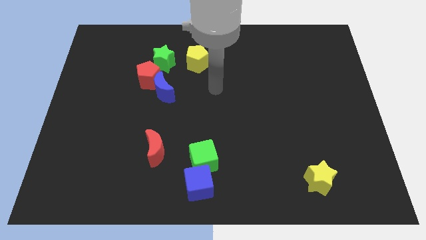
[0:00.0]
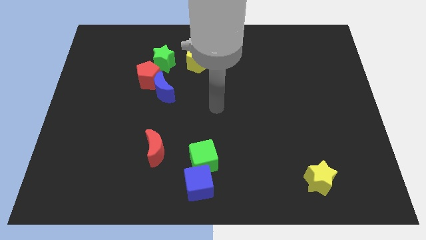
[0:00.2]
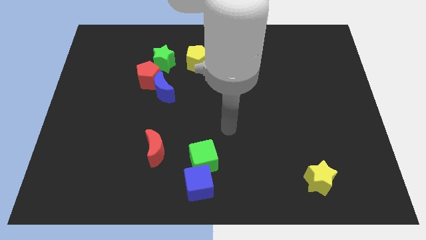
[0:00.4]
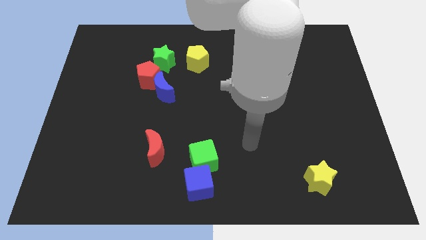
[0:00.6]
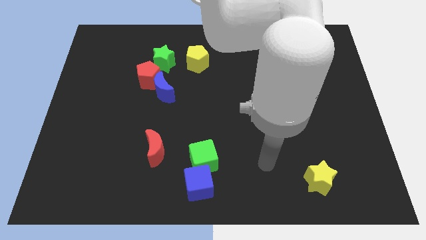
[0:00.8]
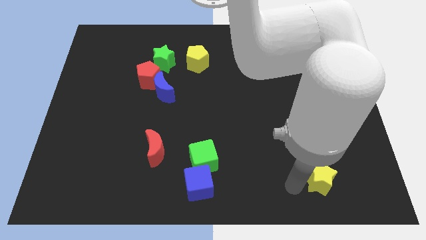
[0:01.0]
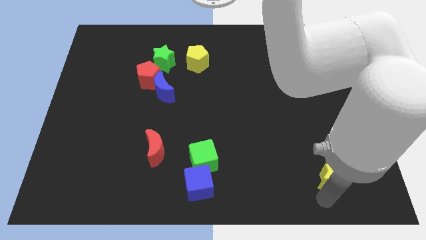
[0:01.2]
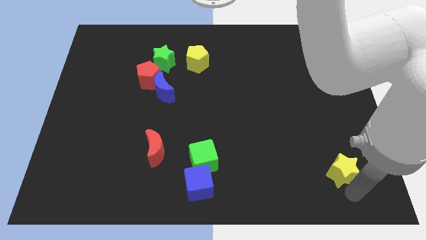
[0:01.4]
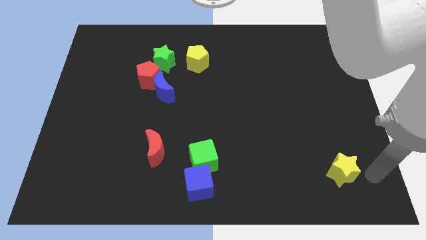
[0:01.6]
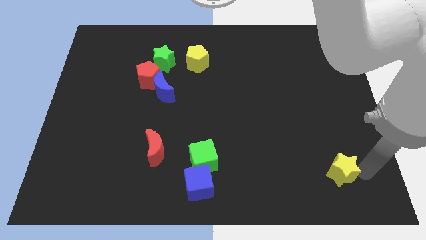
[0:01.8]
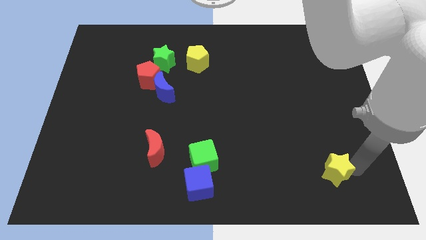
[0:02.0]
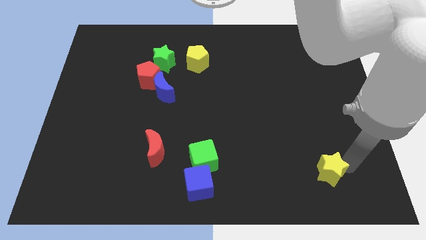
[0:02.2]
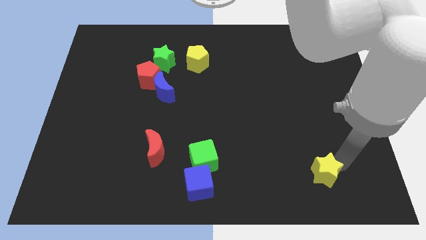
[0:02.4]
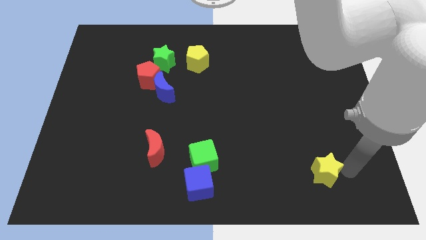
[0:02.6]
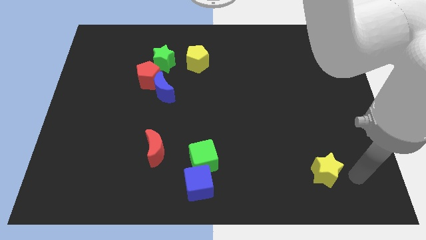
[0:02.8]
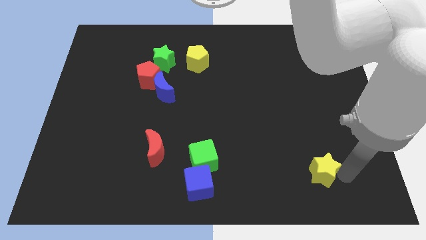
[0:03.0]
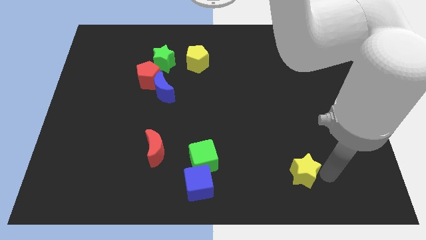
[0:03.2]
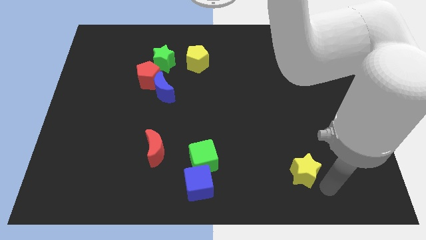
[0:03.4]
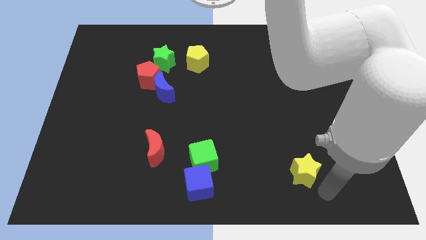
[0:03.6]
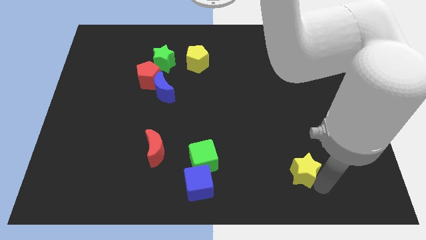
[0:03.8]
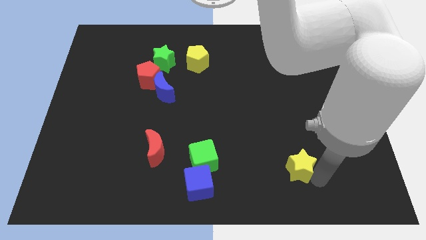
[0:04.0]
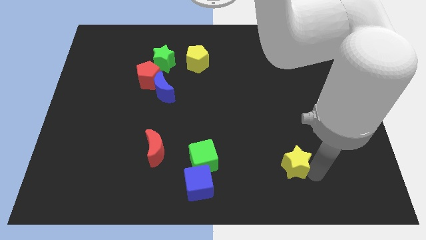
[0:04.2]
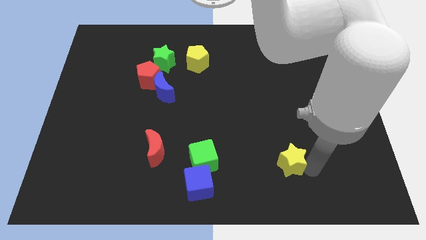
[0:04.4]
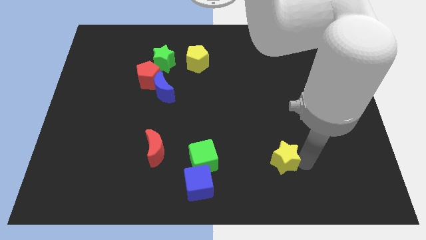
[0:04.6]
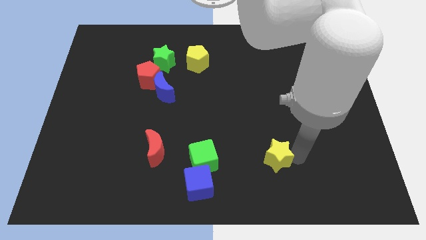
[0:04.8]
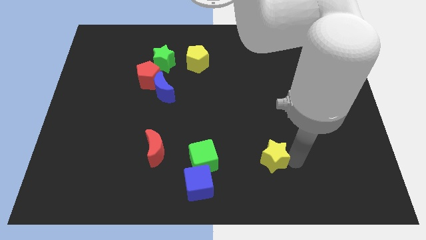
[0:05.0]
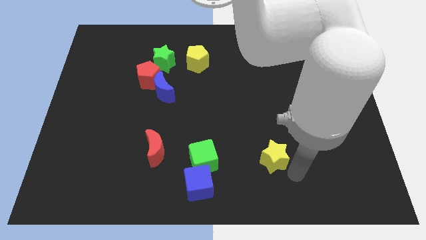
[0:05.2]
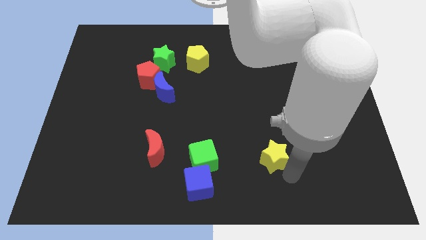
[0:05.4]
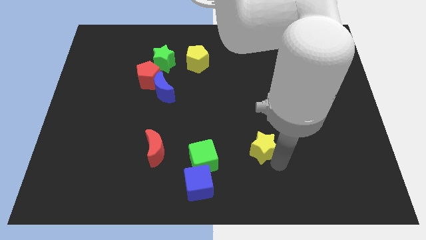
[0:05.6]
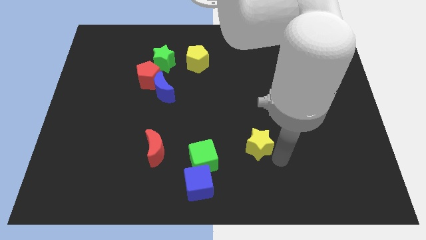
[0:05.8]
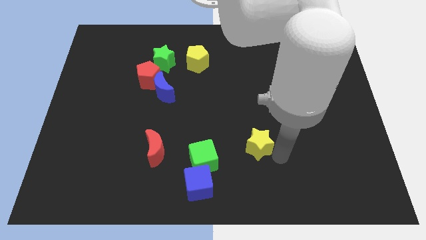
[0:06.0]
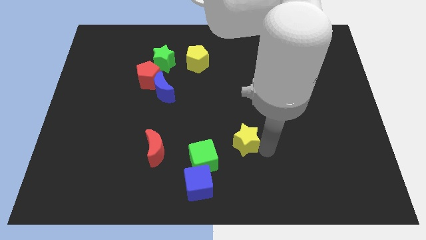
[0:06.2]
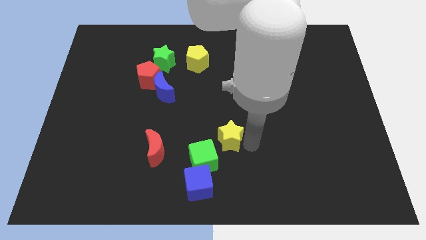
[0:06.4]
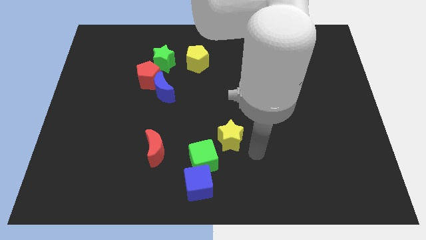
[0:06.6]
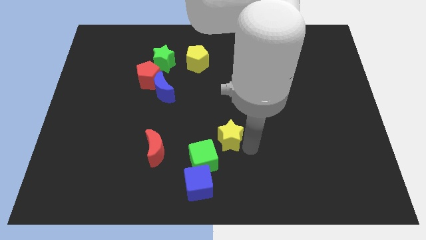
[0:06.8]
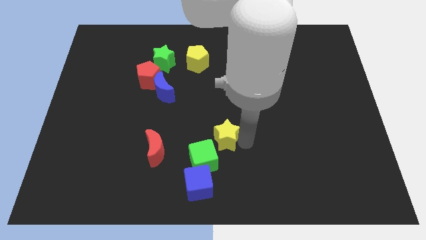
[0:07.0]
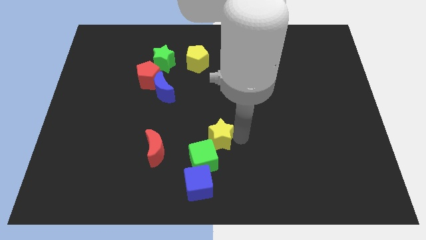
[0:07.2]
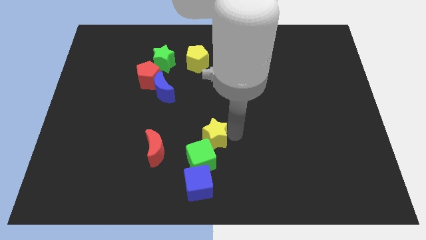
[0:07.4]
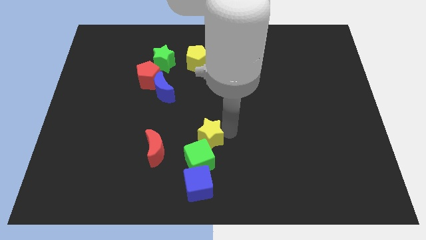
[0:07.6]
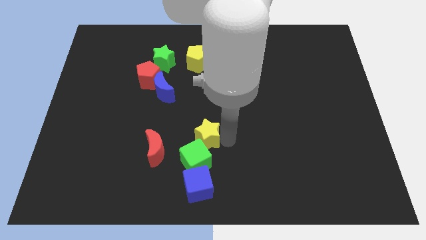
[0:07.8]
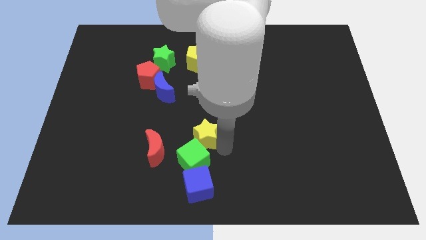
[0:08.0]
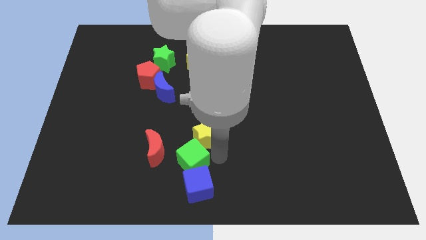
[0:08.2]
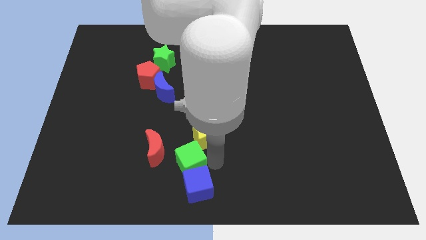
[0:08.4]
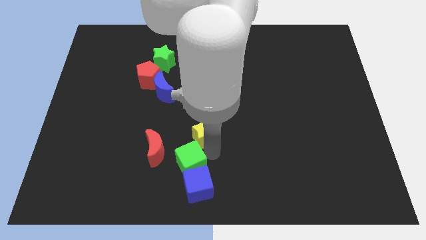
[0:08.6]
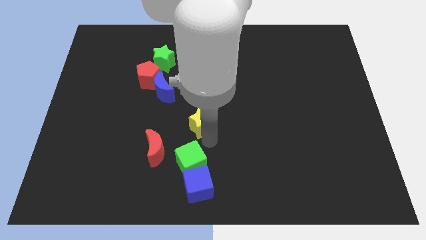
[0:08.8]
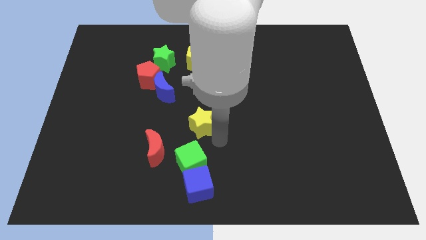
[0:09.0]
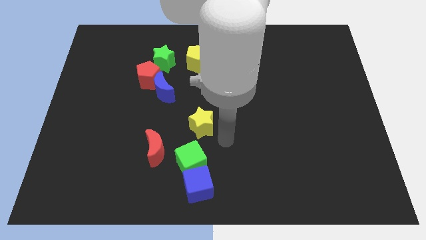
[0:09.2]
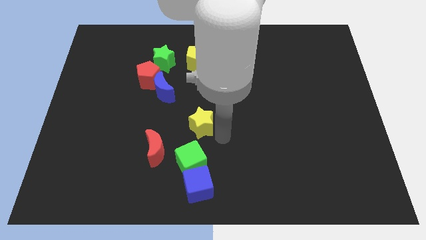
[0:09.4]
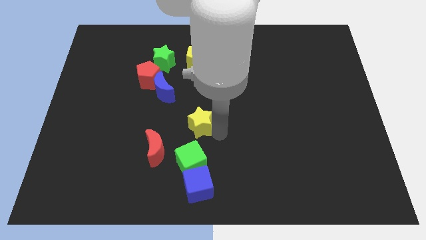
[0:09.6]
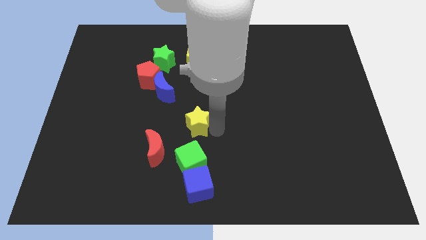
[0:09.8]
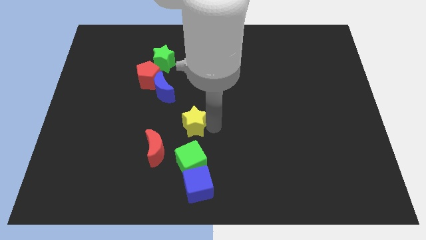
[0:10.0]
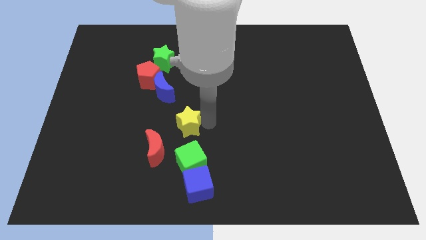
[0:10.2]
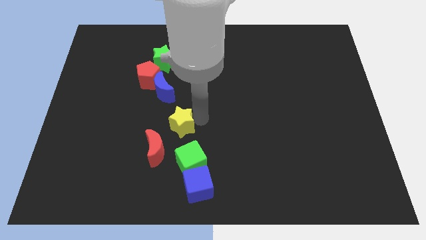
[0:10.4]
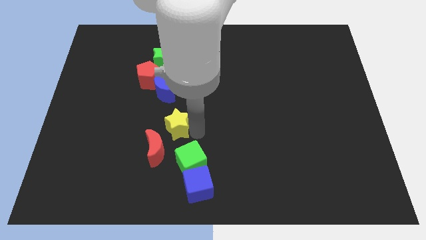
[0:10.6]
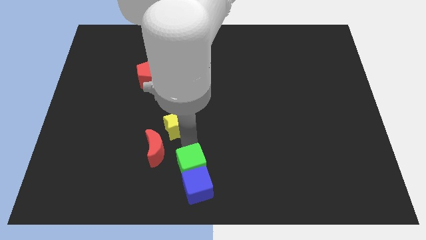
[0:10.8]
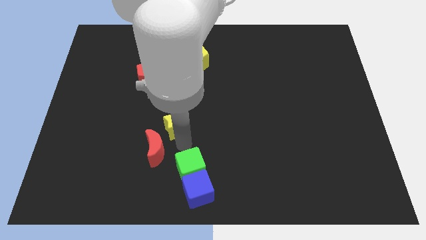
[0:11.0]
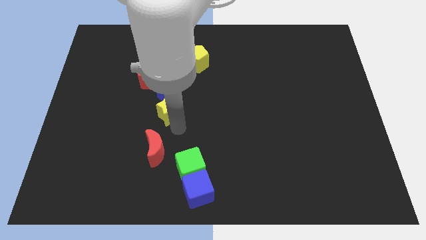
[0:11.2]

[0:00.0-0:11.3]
move the yellow star to the bottom right of the red pentagon
